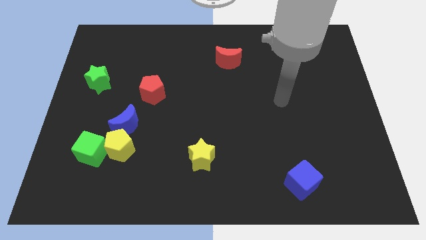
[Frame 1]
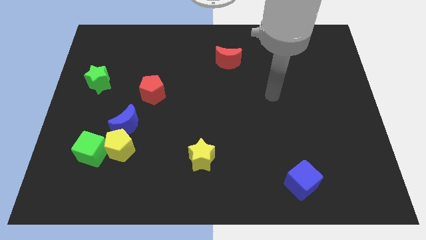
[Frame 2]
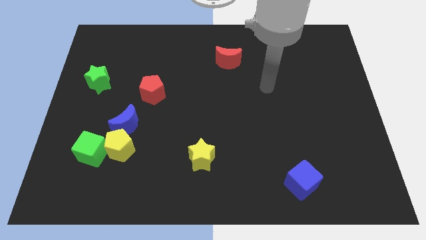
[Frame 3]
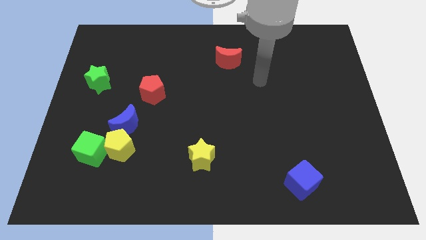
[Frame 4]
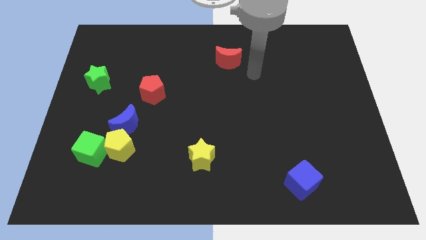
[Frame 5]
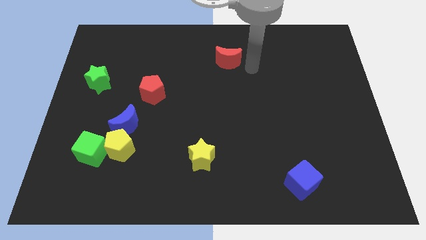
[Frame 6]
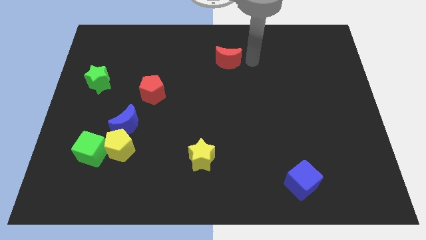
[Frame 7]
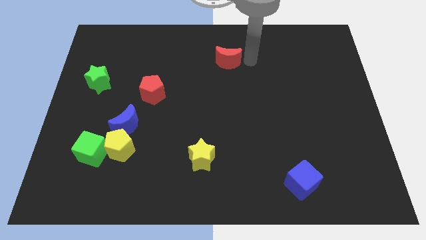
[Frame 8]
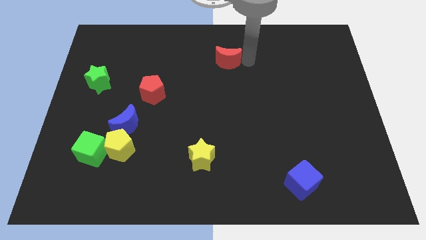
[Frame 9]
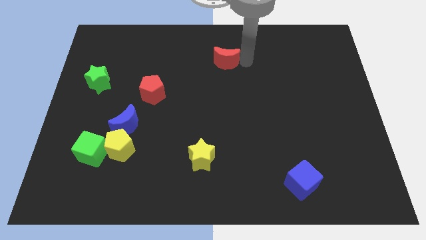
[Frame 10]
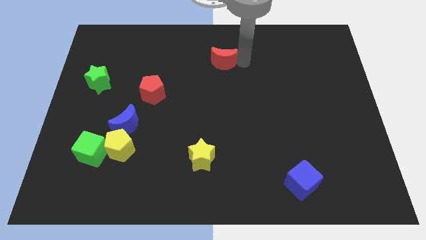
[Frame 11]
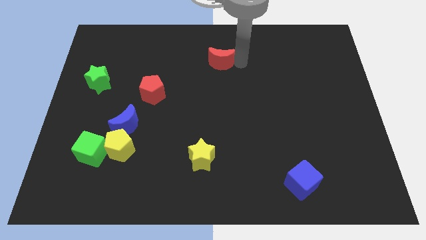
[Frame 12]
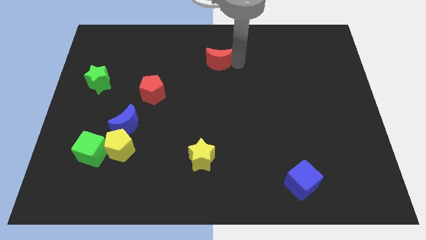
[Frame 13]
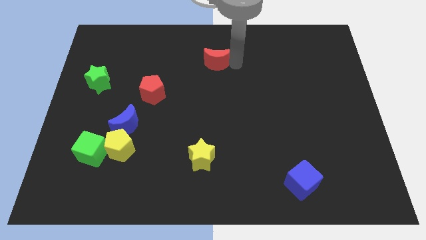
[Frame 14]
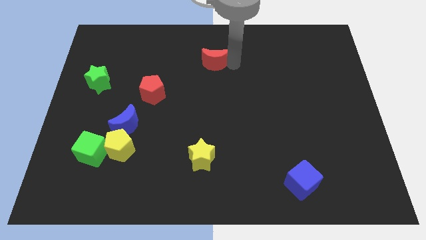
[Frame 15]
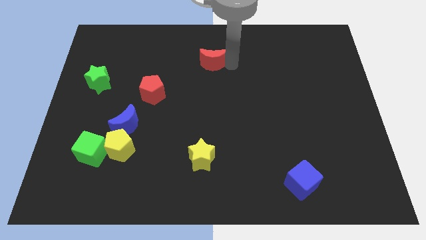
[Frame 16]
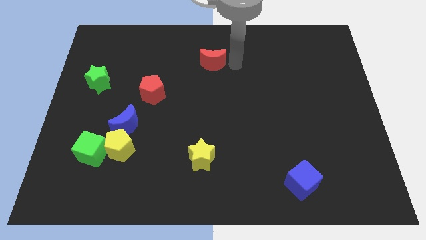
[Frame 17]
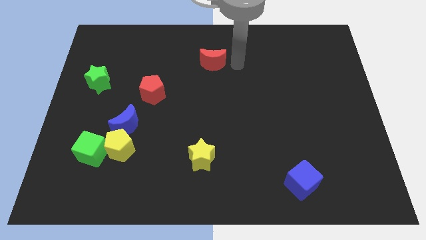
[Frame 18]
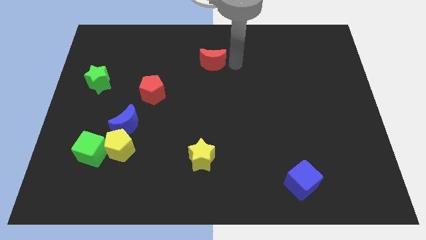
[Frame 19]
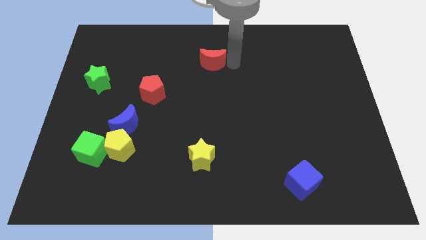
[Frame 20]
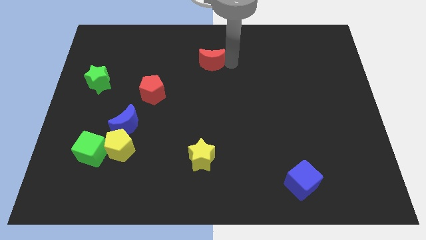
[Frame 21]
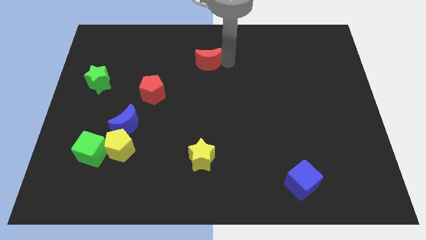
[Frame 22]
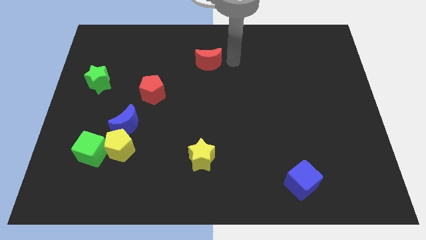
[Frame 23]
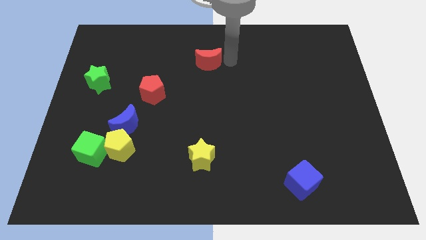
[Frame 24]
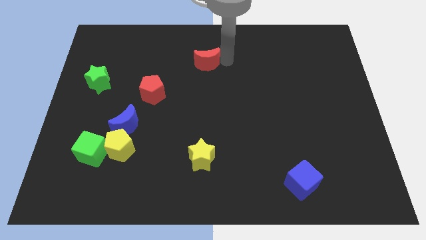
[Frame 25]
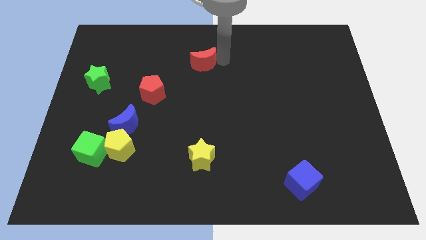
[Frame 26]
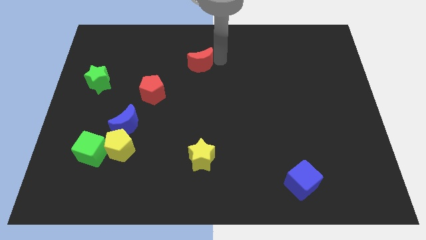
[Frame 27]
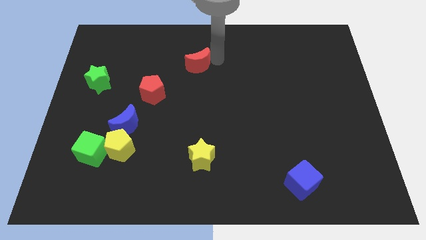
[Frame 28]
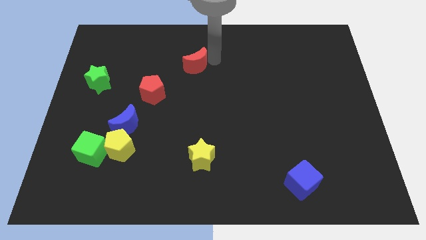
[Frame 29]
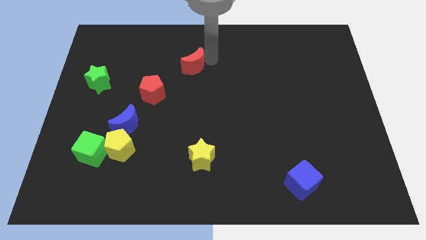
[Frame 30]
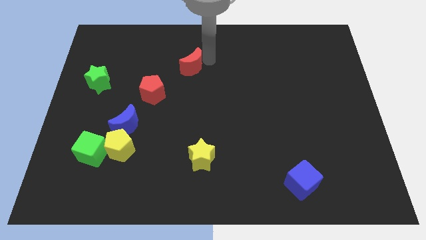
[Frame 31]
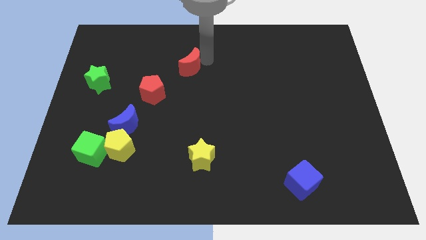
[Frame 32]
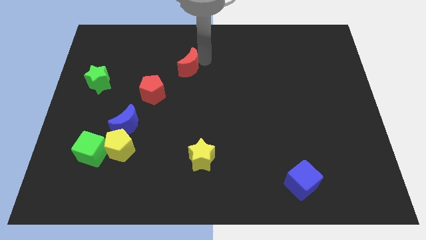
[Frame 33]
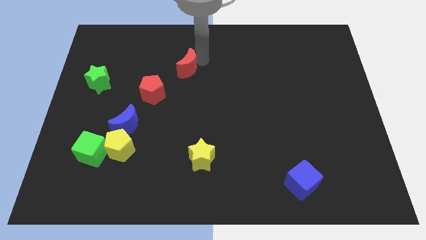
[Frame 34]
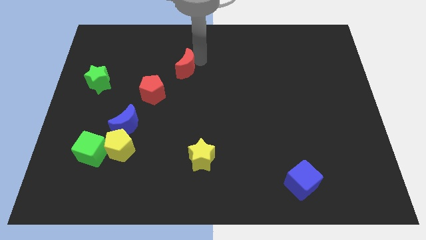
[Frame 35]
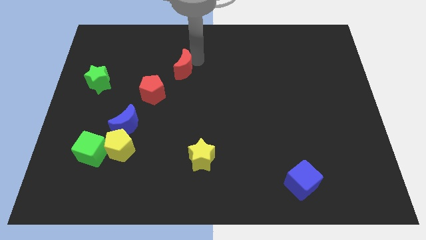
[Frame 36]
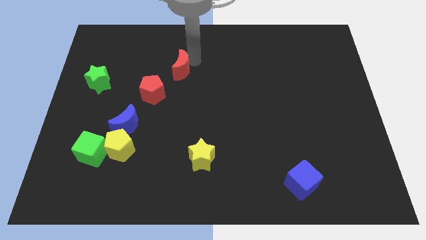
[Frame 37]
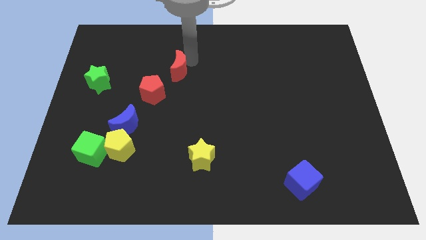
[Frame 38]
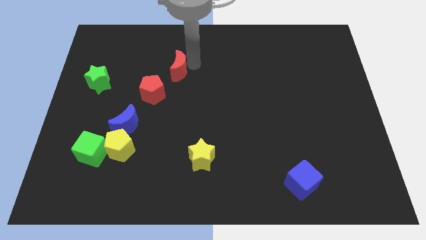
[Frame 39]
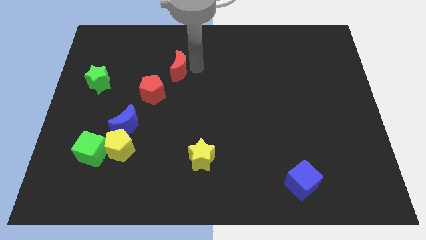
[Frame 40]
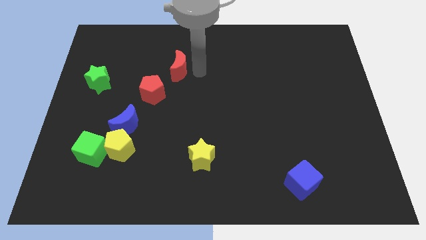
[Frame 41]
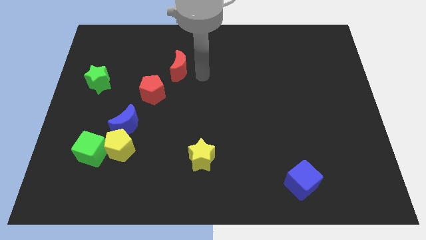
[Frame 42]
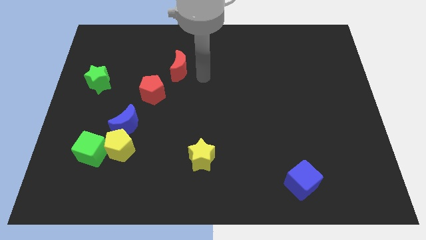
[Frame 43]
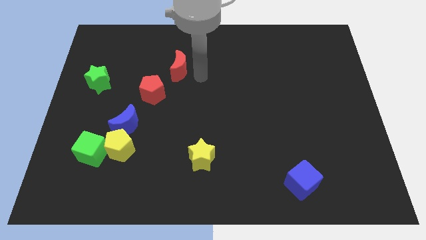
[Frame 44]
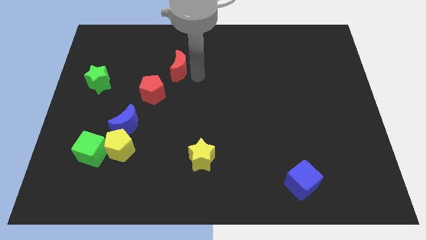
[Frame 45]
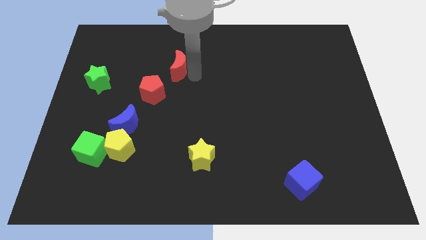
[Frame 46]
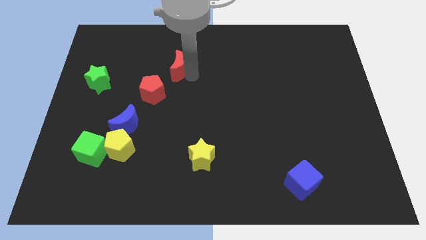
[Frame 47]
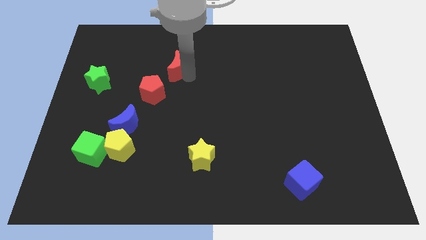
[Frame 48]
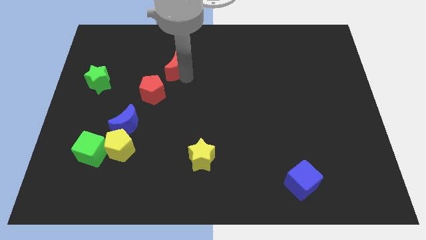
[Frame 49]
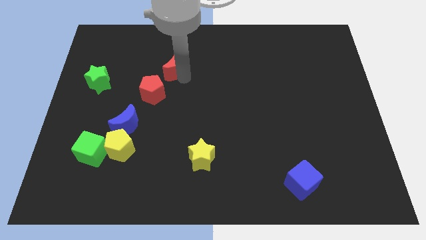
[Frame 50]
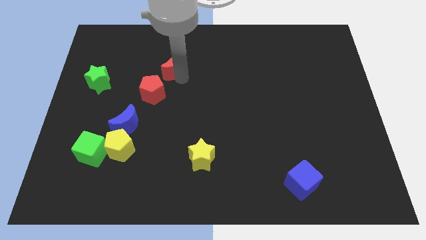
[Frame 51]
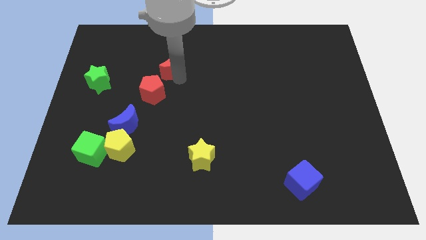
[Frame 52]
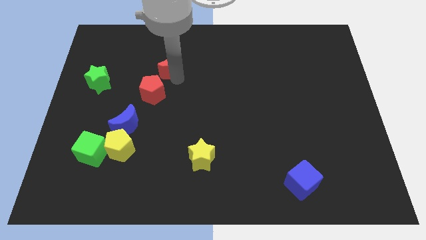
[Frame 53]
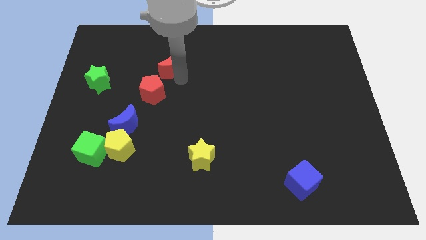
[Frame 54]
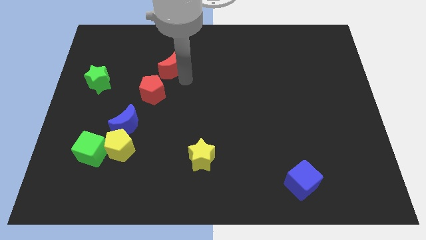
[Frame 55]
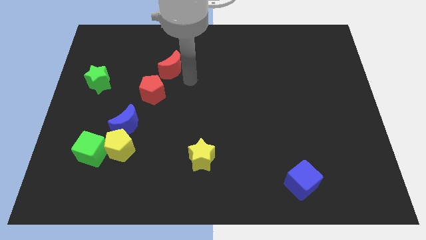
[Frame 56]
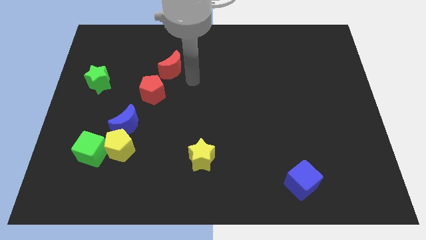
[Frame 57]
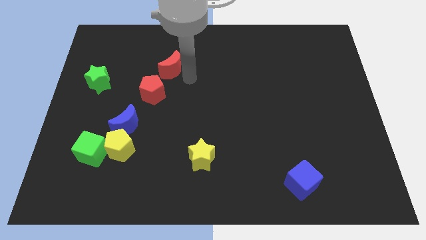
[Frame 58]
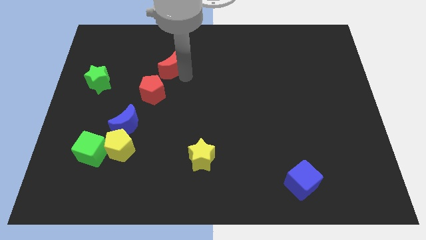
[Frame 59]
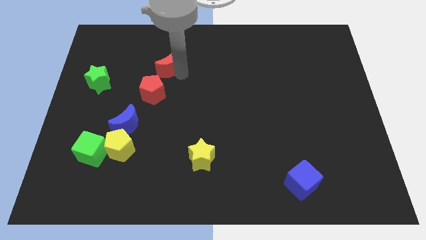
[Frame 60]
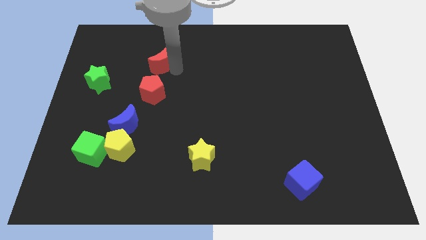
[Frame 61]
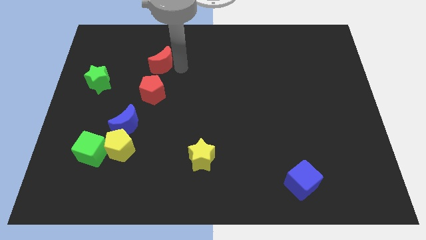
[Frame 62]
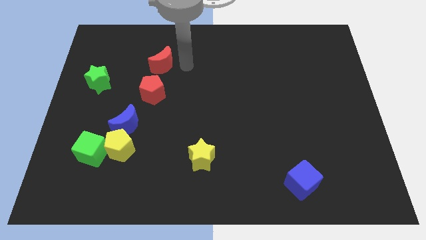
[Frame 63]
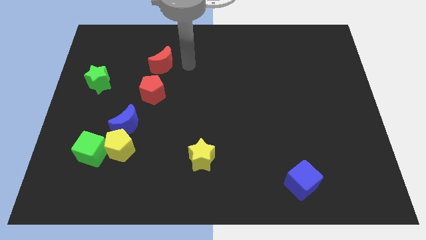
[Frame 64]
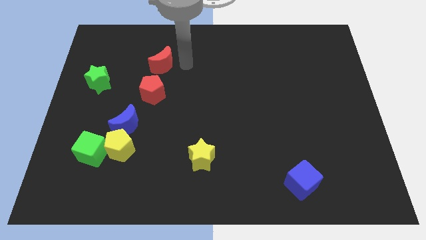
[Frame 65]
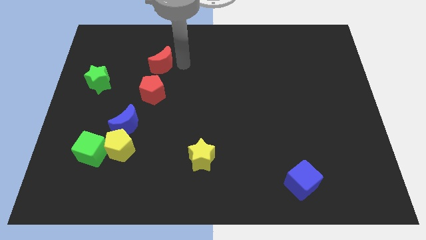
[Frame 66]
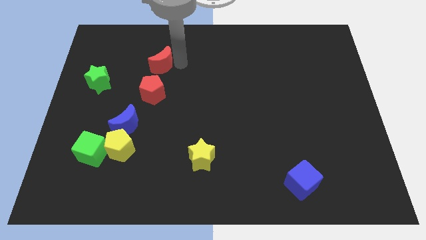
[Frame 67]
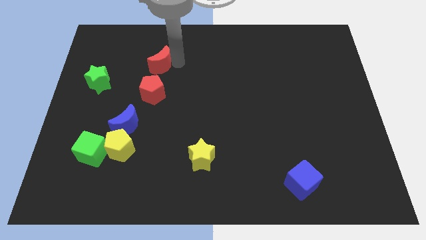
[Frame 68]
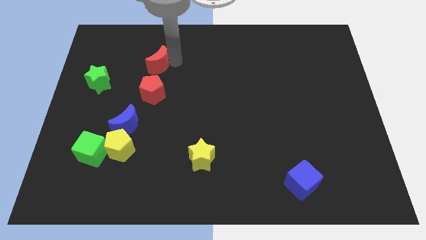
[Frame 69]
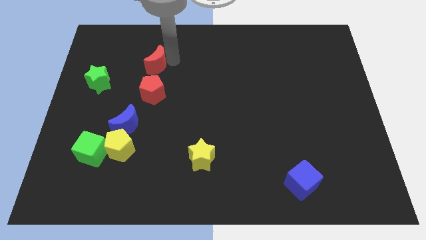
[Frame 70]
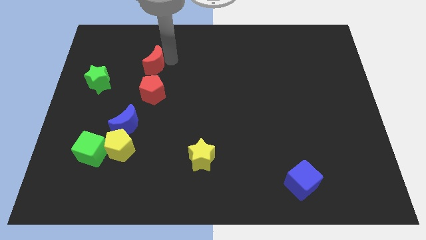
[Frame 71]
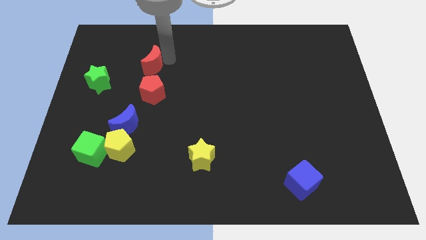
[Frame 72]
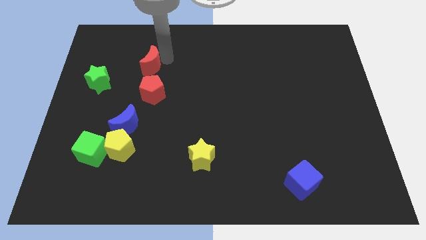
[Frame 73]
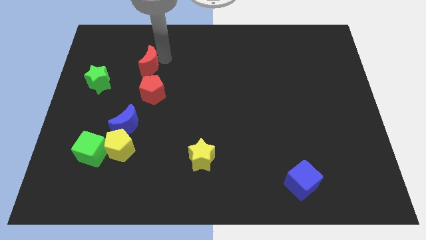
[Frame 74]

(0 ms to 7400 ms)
push the red moon to the left

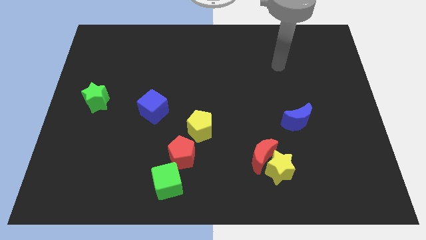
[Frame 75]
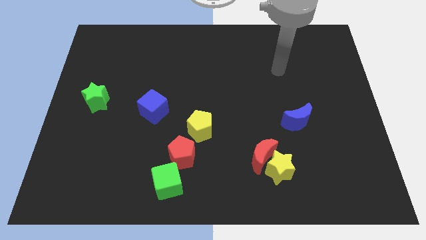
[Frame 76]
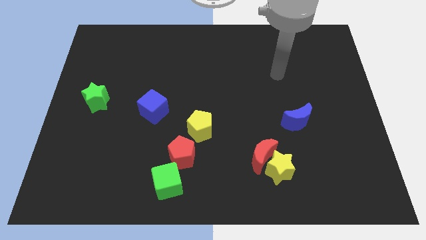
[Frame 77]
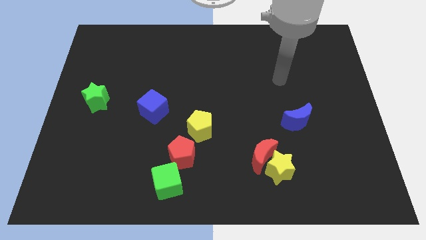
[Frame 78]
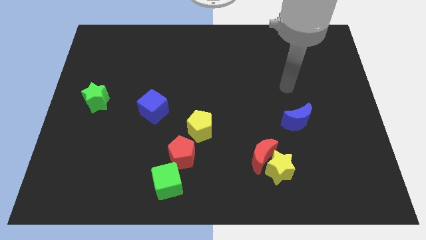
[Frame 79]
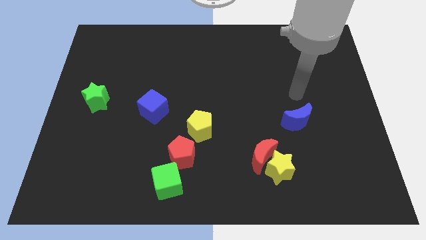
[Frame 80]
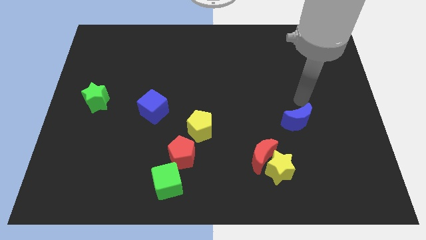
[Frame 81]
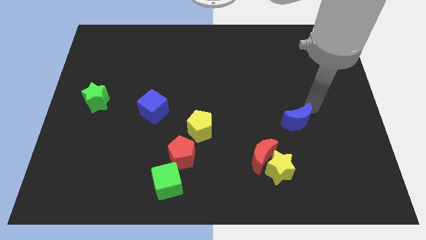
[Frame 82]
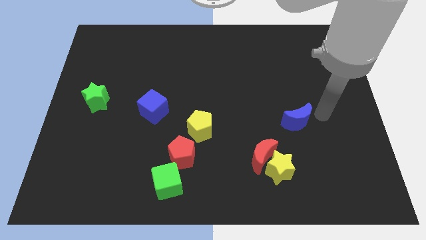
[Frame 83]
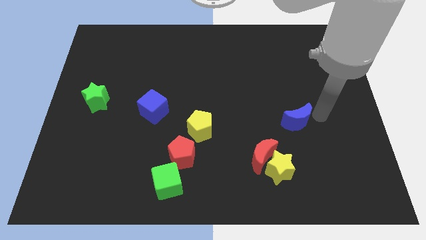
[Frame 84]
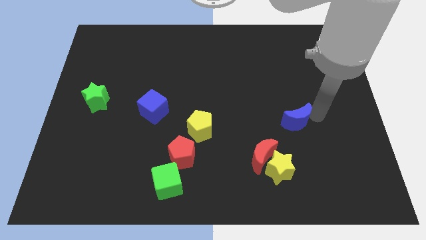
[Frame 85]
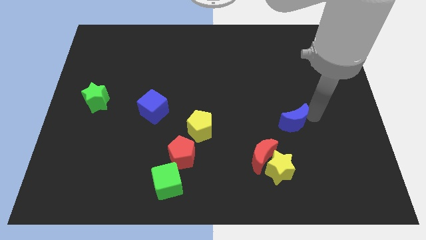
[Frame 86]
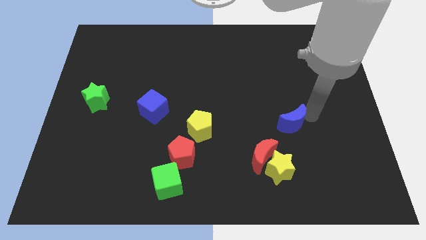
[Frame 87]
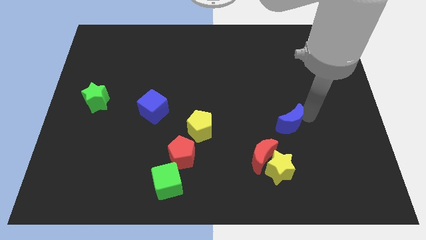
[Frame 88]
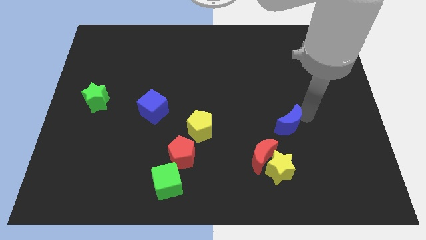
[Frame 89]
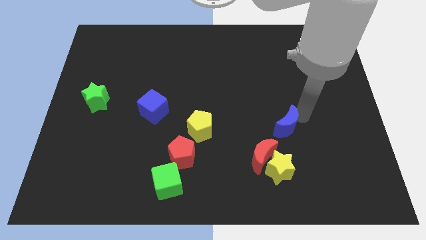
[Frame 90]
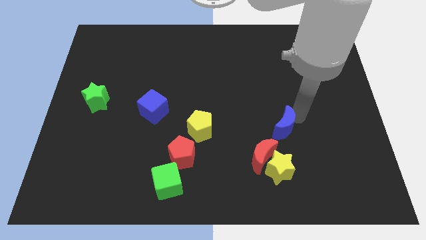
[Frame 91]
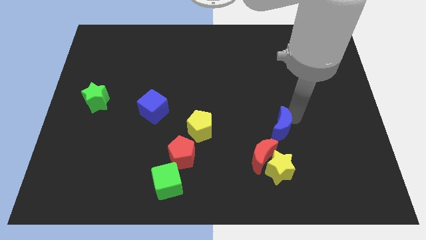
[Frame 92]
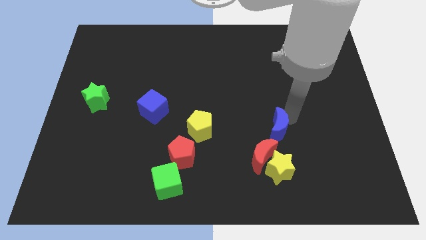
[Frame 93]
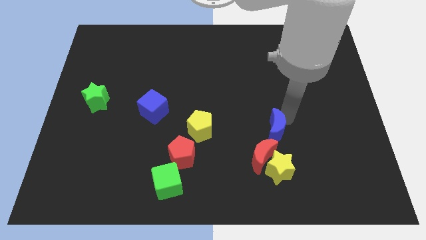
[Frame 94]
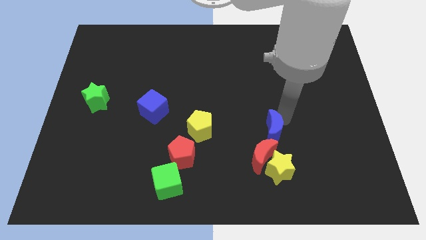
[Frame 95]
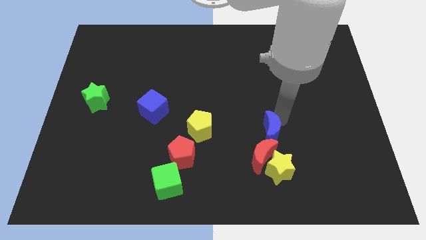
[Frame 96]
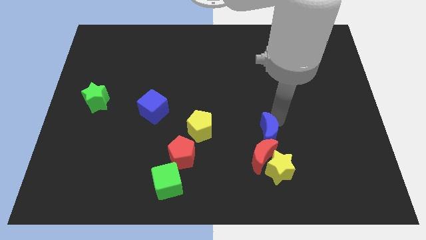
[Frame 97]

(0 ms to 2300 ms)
push the blue moon a little bit down and left diagonally
